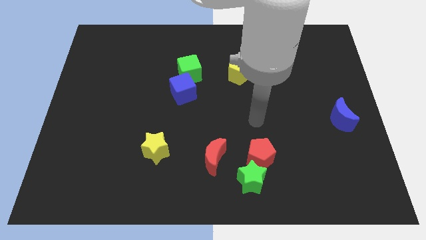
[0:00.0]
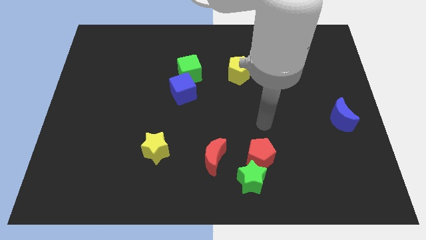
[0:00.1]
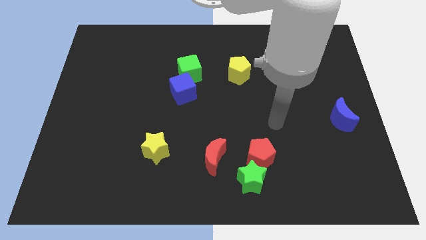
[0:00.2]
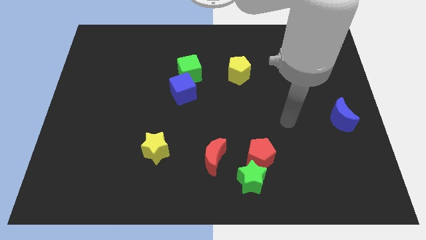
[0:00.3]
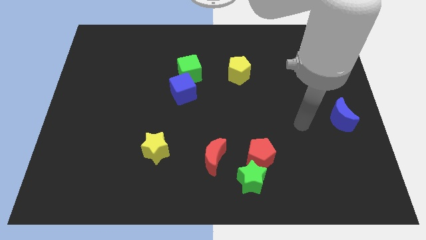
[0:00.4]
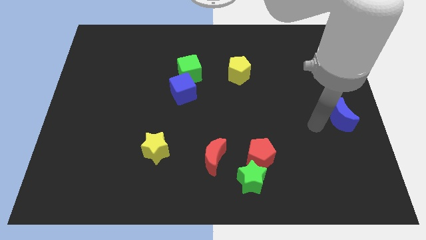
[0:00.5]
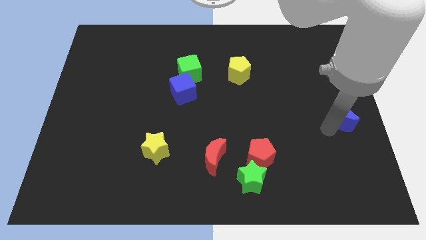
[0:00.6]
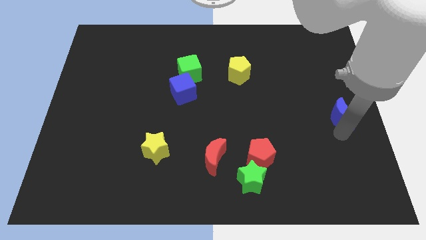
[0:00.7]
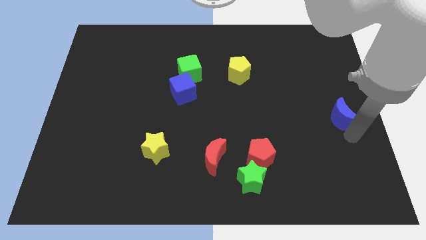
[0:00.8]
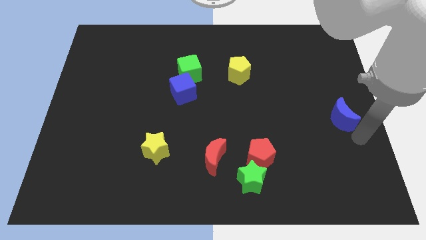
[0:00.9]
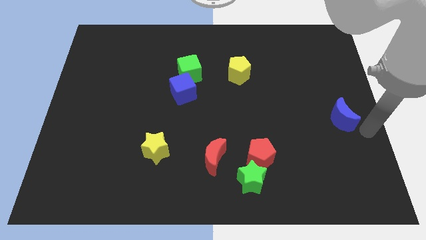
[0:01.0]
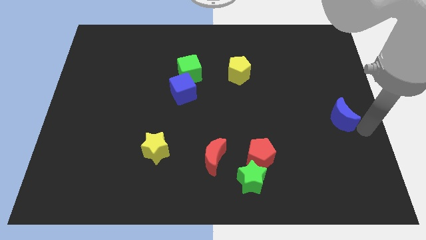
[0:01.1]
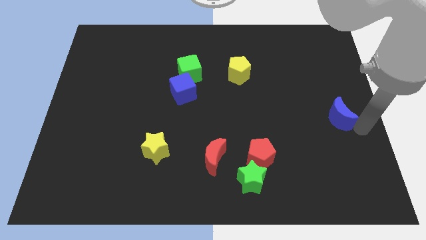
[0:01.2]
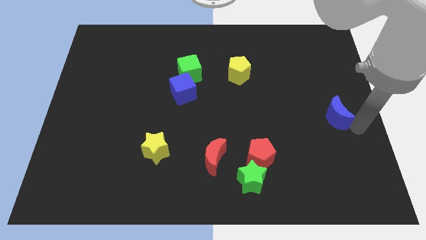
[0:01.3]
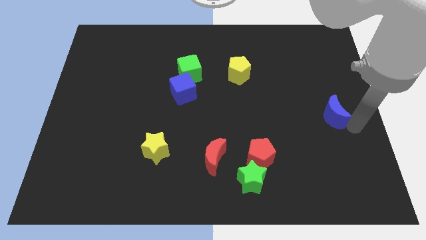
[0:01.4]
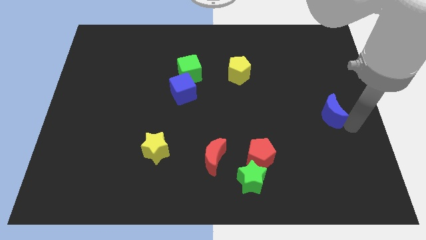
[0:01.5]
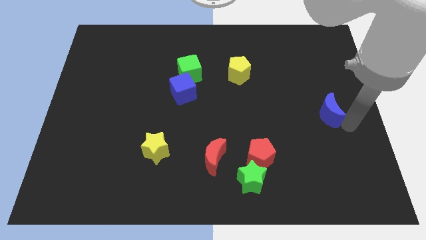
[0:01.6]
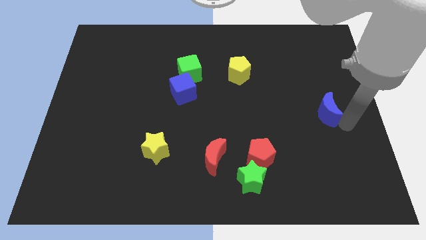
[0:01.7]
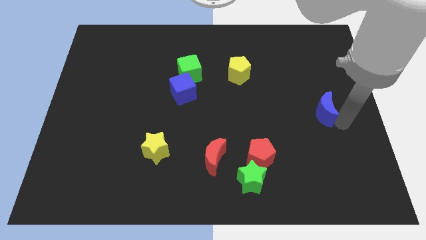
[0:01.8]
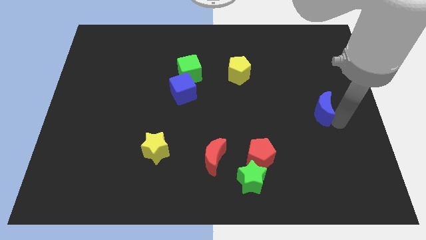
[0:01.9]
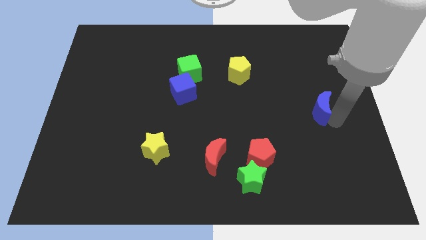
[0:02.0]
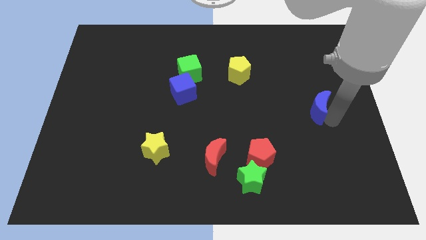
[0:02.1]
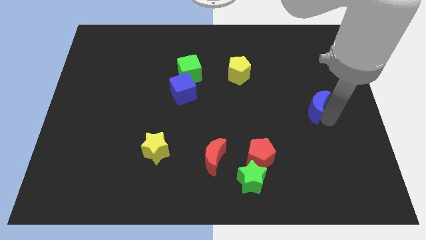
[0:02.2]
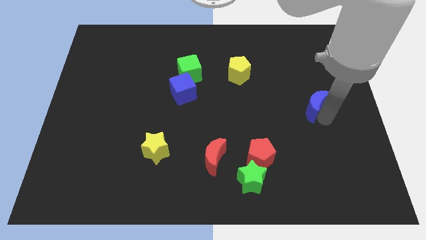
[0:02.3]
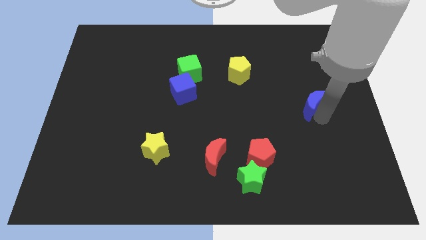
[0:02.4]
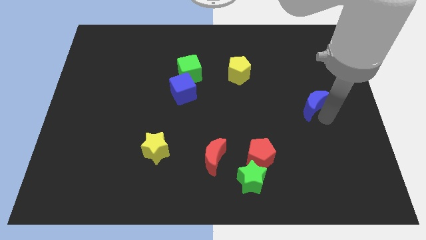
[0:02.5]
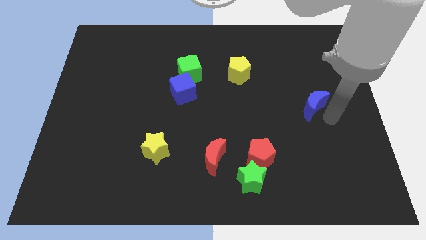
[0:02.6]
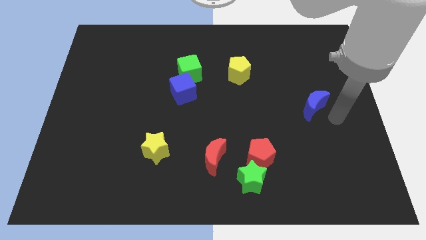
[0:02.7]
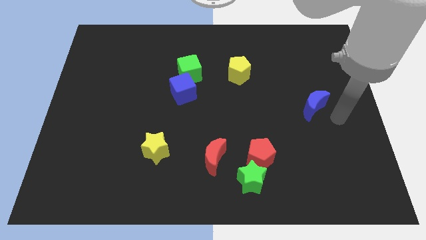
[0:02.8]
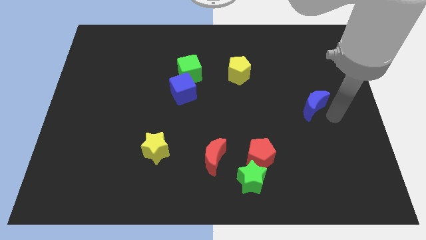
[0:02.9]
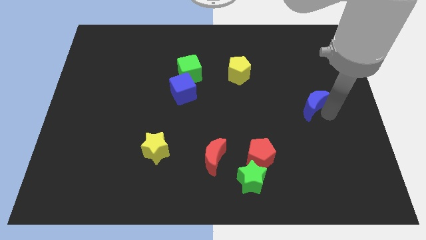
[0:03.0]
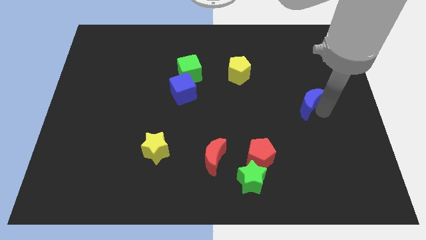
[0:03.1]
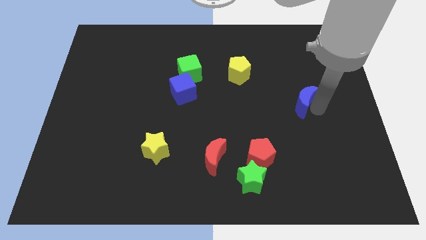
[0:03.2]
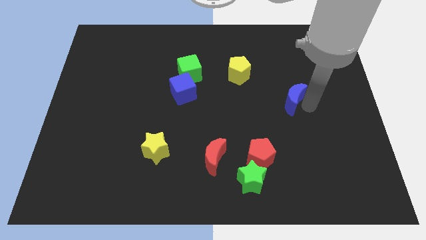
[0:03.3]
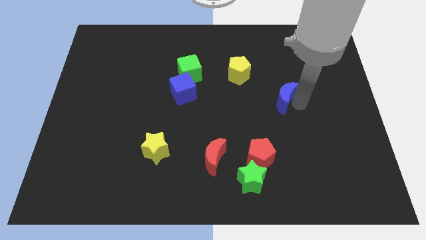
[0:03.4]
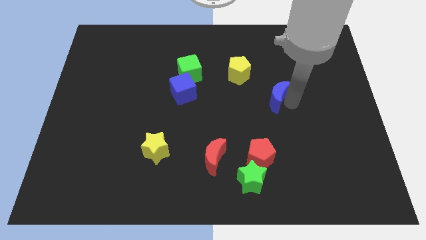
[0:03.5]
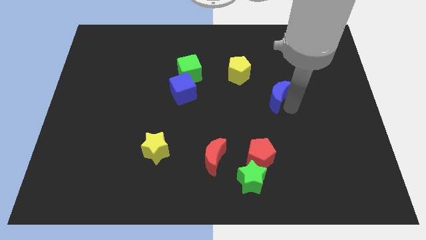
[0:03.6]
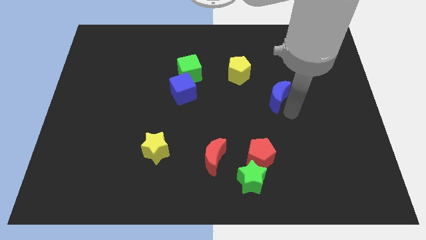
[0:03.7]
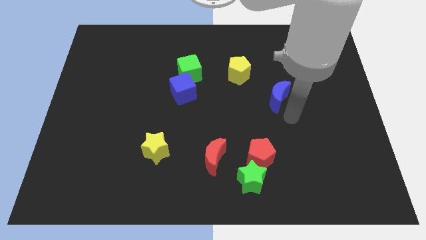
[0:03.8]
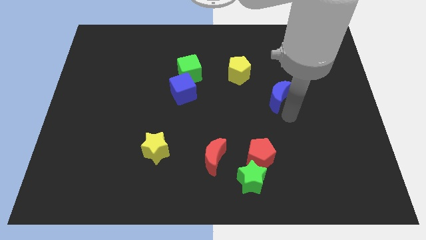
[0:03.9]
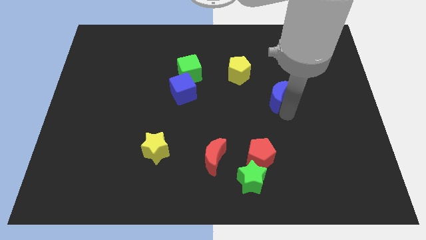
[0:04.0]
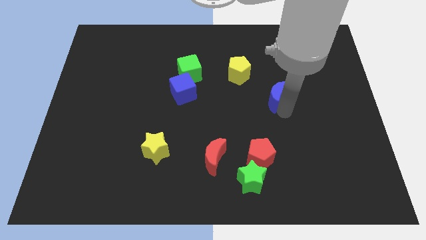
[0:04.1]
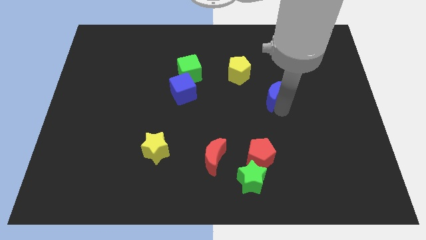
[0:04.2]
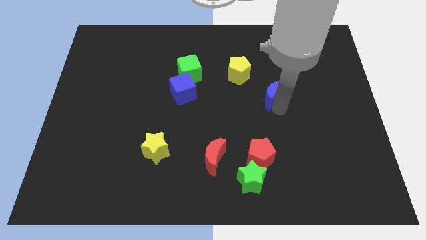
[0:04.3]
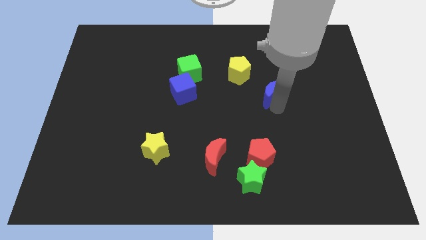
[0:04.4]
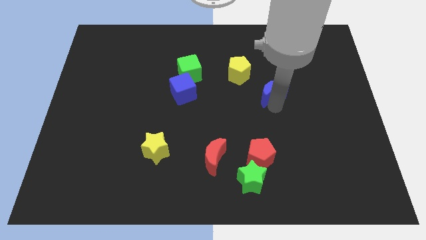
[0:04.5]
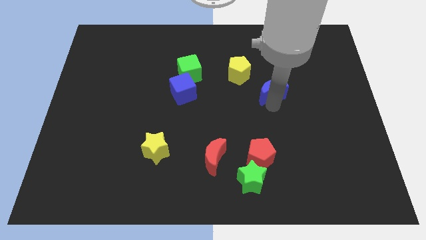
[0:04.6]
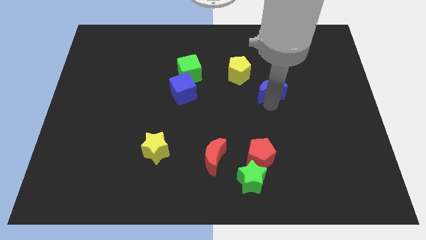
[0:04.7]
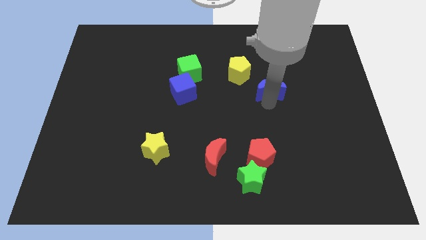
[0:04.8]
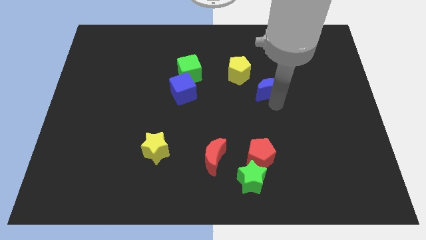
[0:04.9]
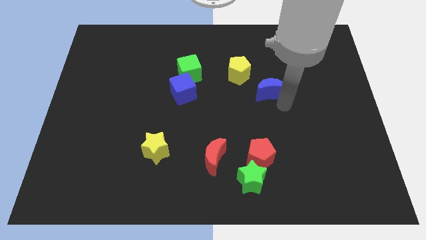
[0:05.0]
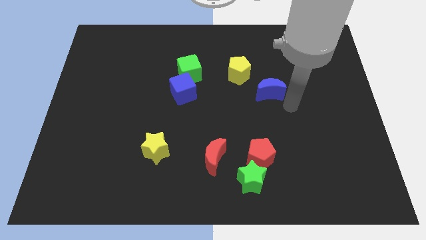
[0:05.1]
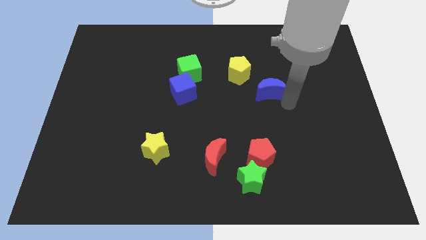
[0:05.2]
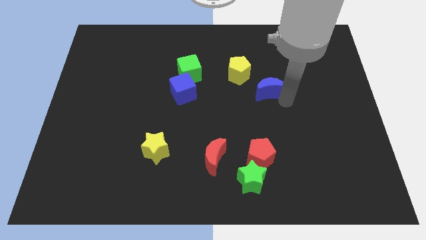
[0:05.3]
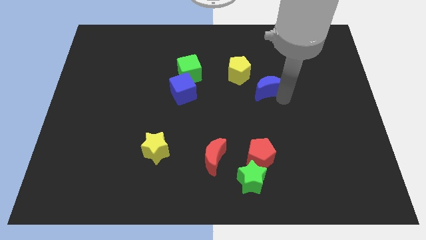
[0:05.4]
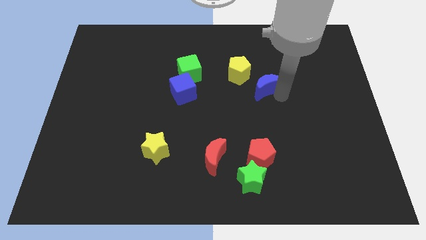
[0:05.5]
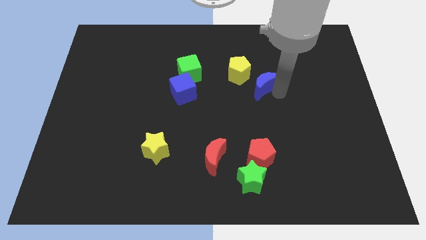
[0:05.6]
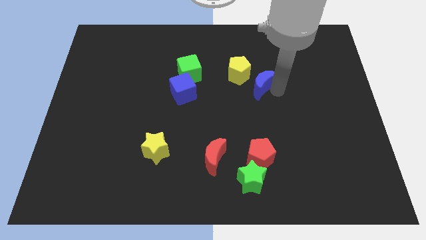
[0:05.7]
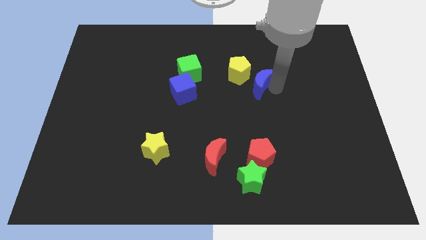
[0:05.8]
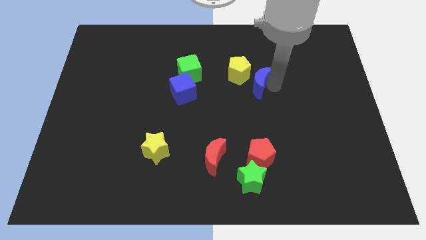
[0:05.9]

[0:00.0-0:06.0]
put the blue moon close to the yellow pentagon

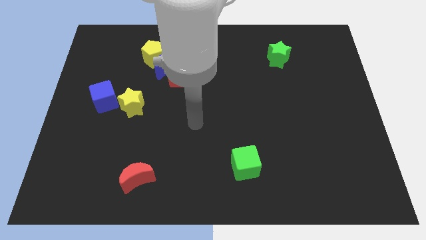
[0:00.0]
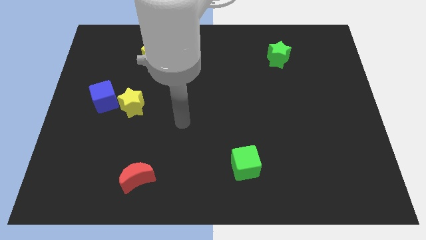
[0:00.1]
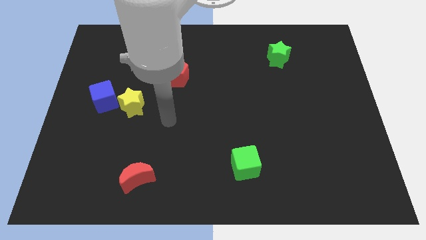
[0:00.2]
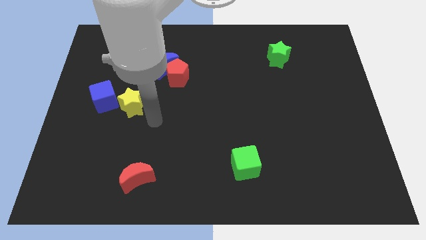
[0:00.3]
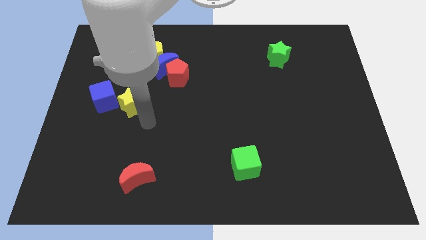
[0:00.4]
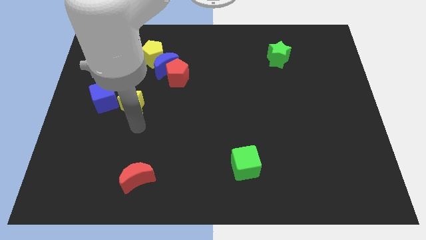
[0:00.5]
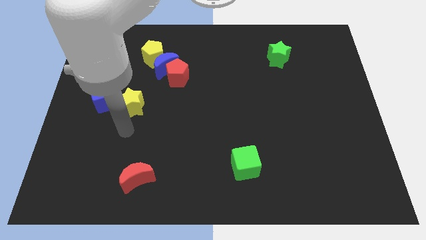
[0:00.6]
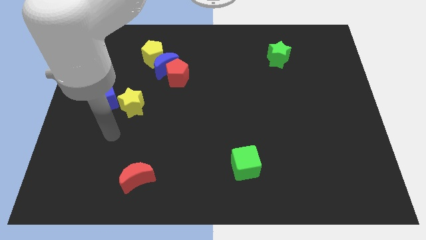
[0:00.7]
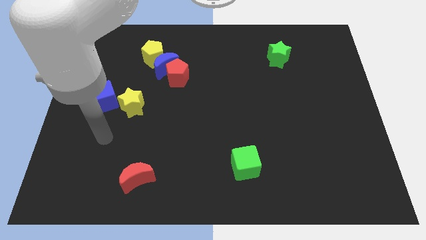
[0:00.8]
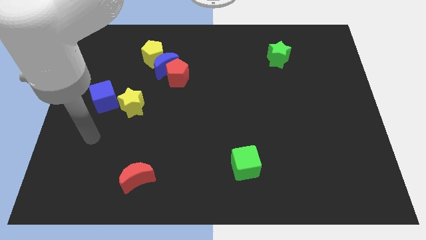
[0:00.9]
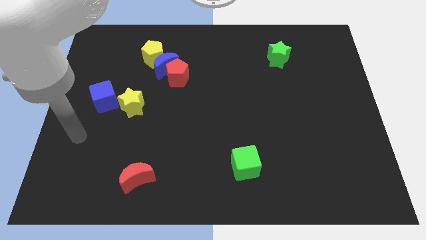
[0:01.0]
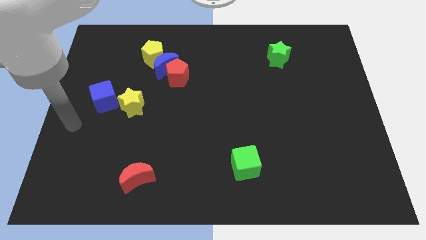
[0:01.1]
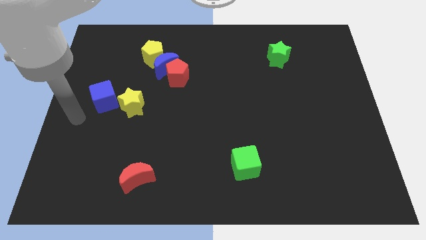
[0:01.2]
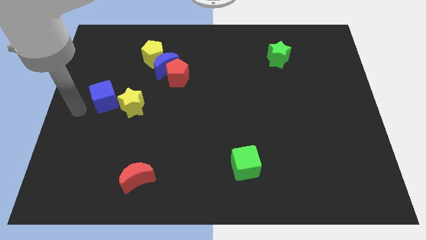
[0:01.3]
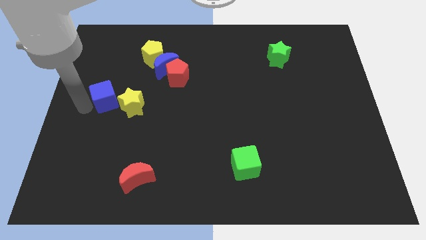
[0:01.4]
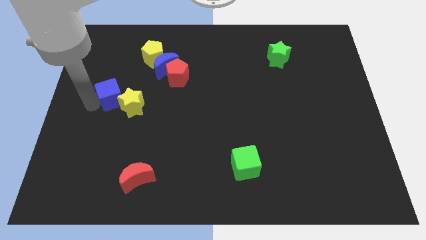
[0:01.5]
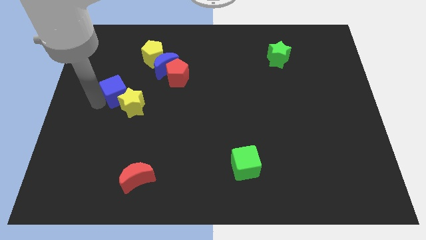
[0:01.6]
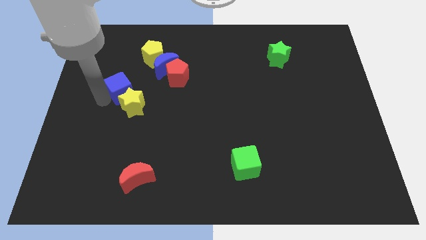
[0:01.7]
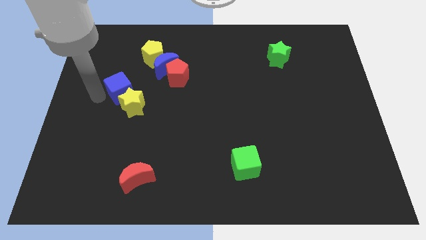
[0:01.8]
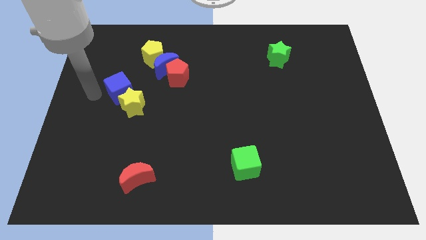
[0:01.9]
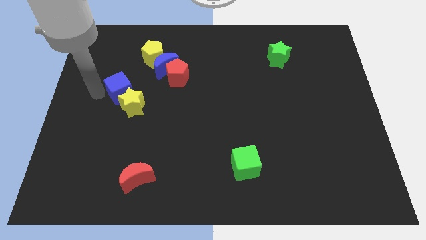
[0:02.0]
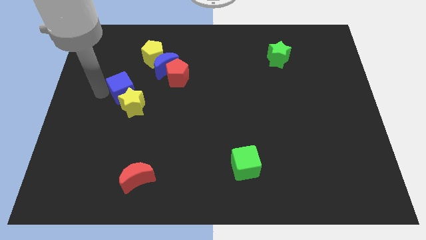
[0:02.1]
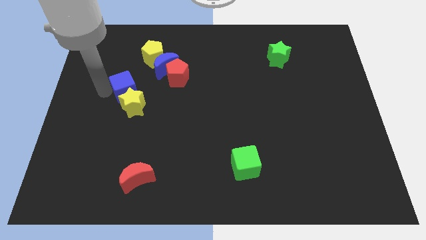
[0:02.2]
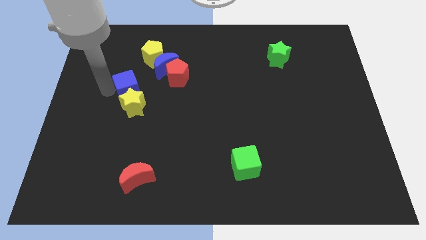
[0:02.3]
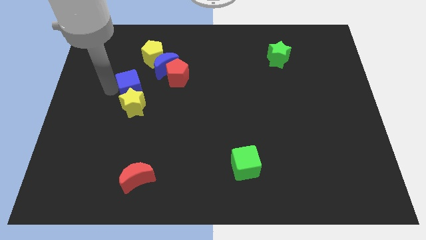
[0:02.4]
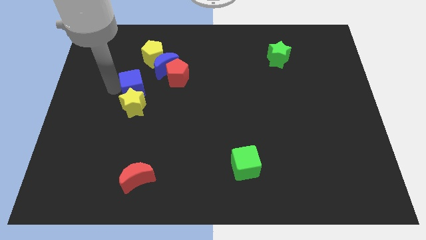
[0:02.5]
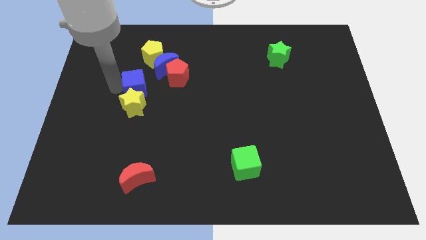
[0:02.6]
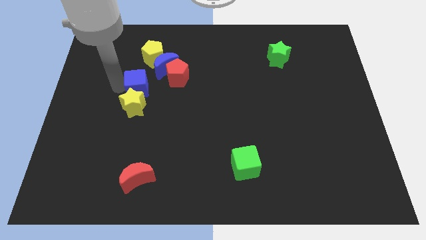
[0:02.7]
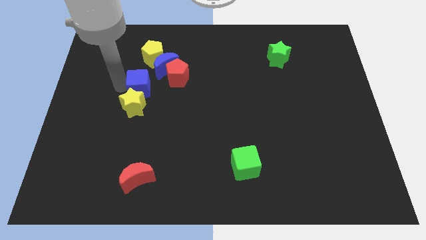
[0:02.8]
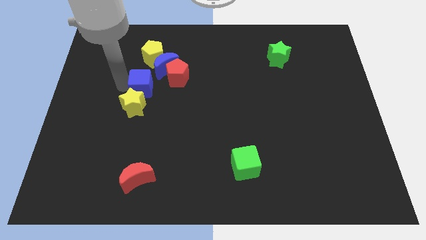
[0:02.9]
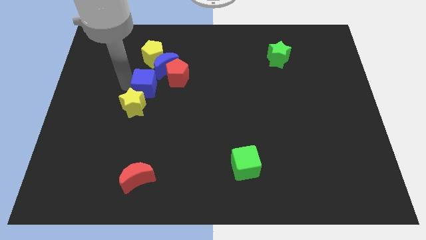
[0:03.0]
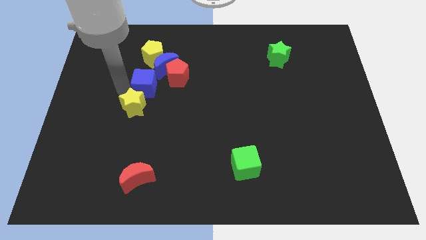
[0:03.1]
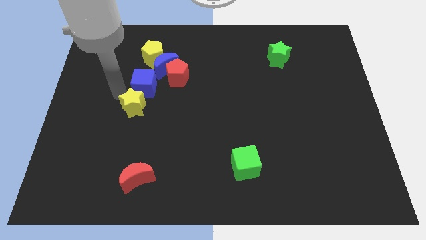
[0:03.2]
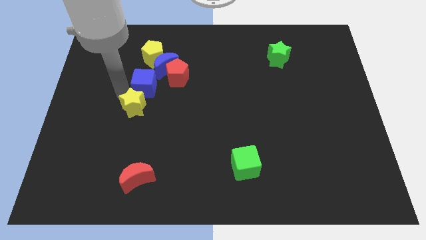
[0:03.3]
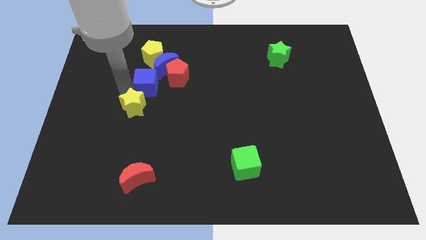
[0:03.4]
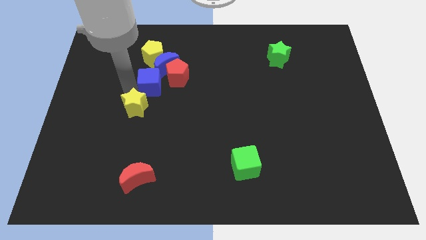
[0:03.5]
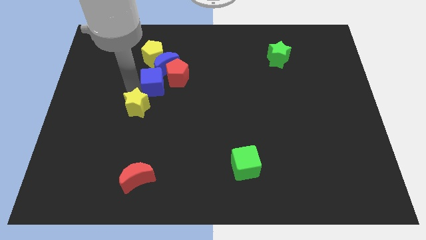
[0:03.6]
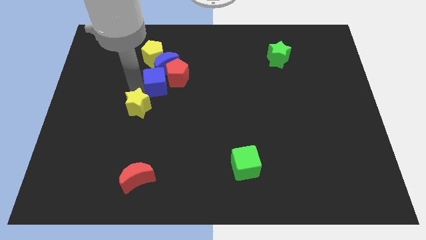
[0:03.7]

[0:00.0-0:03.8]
slide the blue cube towards the red pentagon
